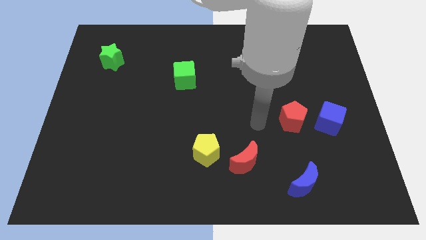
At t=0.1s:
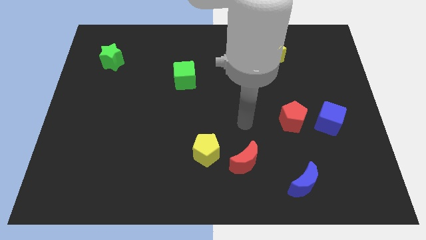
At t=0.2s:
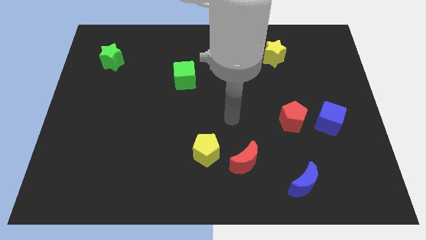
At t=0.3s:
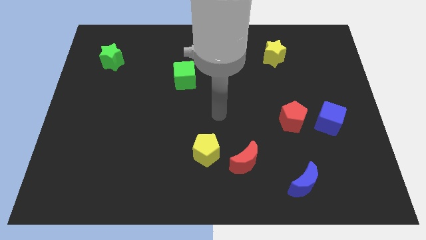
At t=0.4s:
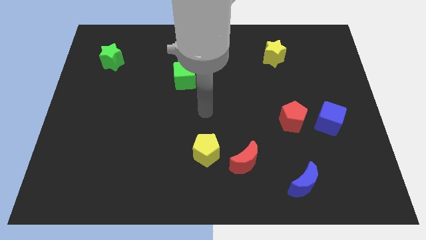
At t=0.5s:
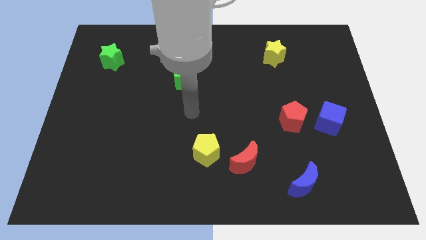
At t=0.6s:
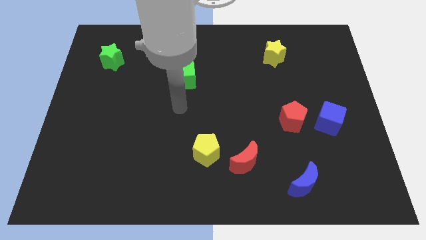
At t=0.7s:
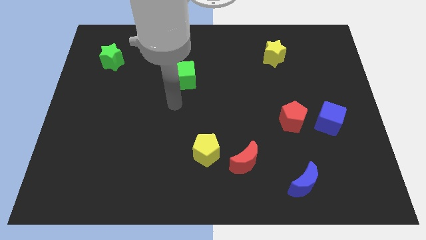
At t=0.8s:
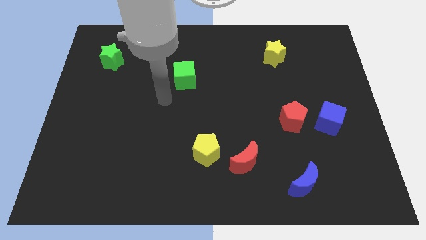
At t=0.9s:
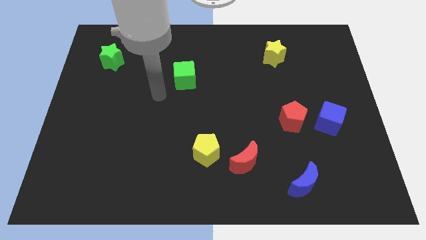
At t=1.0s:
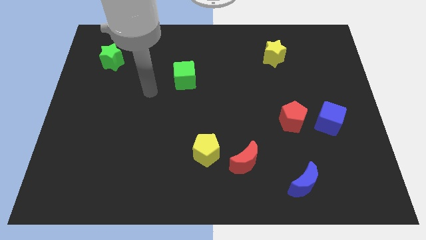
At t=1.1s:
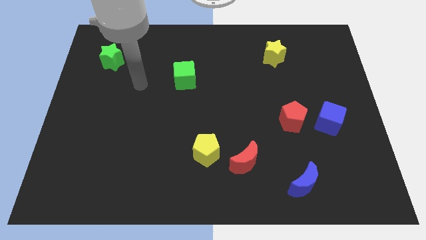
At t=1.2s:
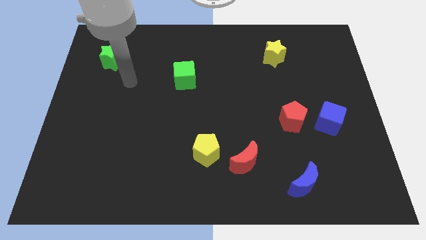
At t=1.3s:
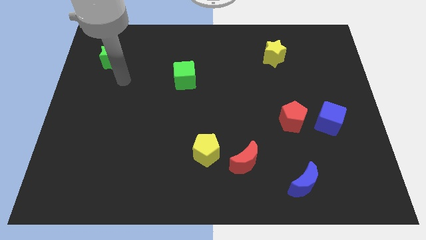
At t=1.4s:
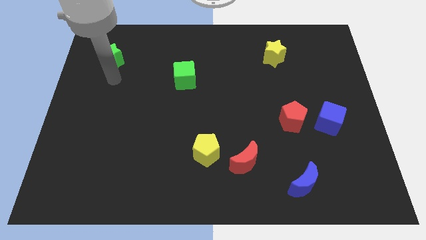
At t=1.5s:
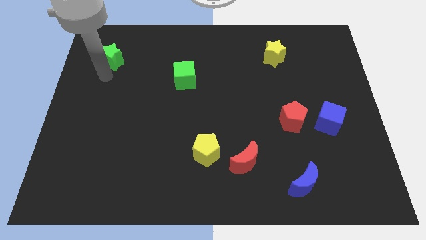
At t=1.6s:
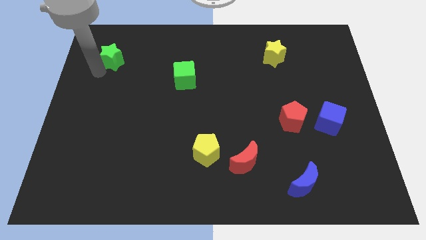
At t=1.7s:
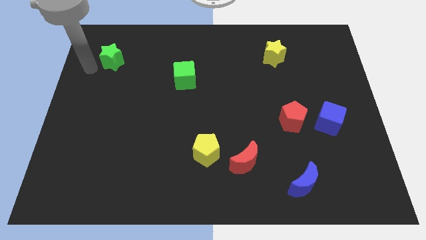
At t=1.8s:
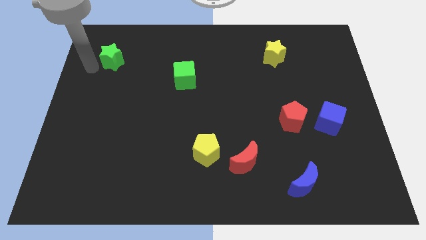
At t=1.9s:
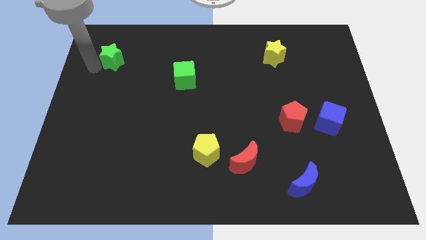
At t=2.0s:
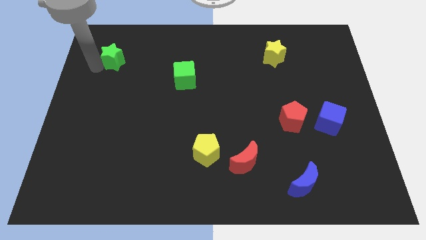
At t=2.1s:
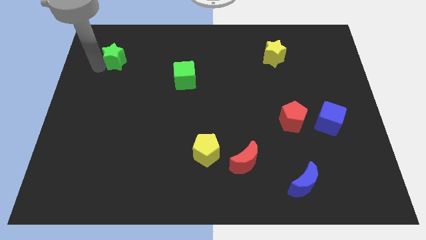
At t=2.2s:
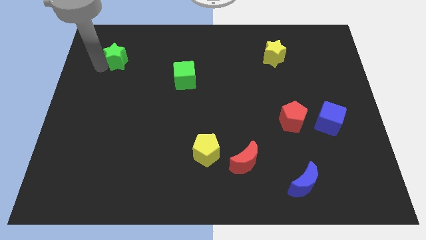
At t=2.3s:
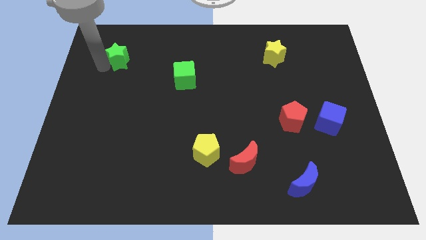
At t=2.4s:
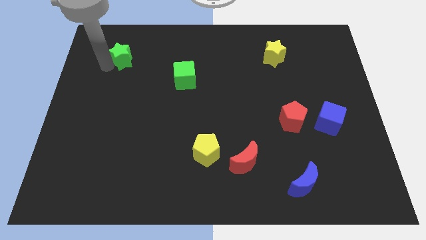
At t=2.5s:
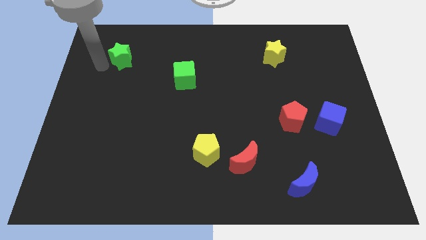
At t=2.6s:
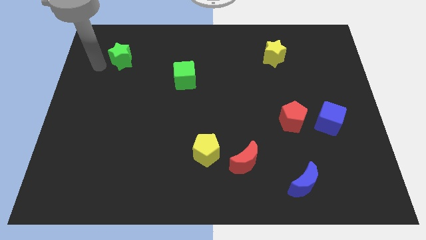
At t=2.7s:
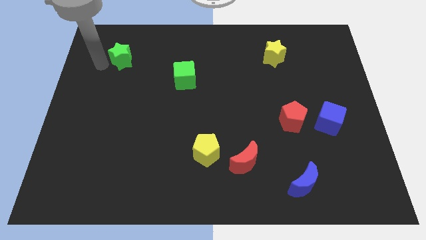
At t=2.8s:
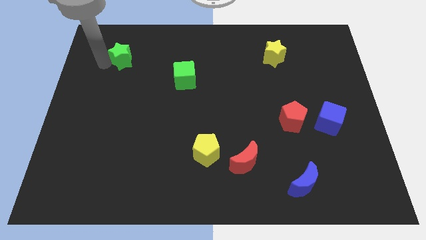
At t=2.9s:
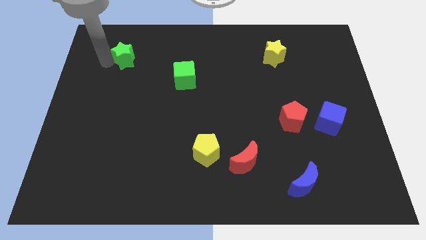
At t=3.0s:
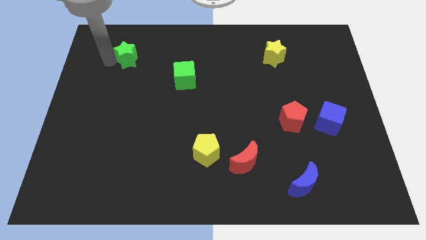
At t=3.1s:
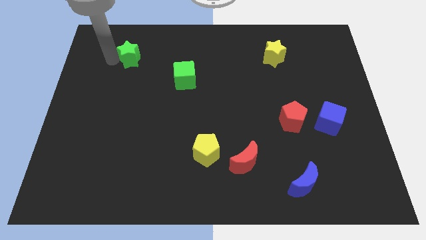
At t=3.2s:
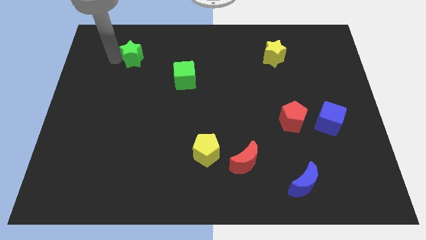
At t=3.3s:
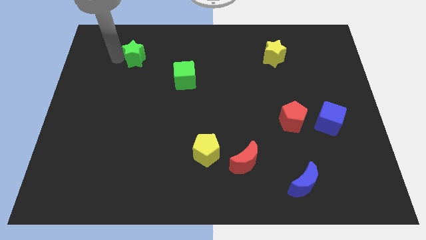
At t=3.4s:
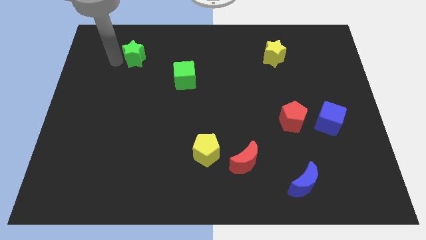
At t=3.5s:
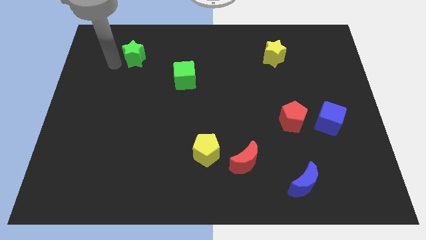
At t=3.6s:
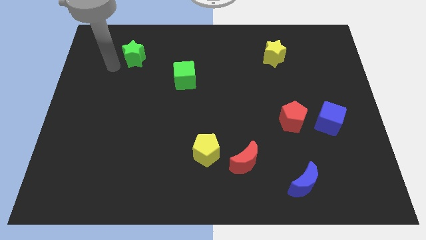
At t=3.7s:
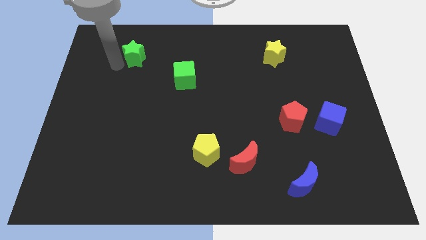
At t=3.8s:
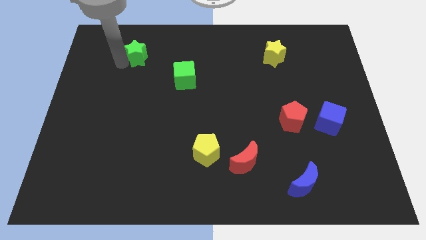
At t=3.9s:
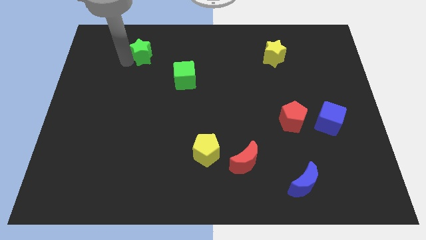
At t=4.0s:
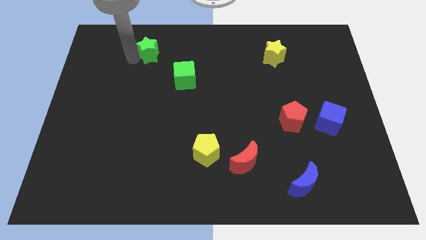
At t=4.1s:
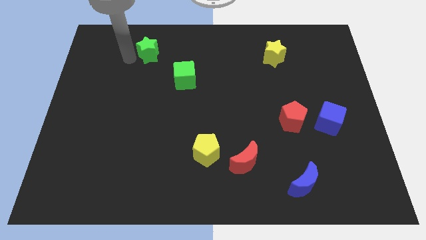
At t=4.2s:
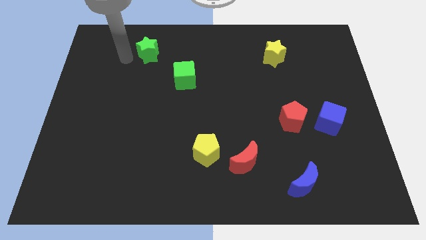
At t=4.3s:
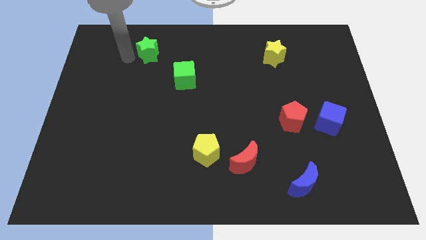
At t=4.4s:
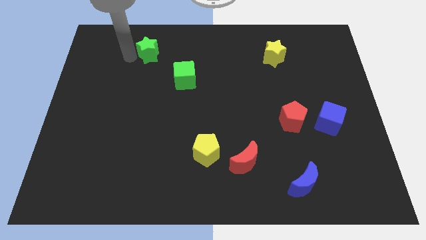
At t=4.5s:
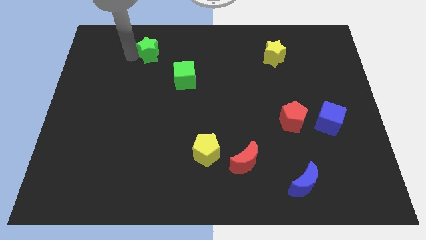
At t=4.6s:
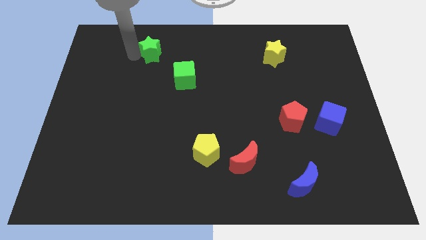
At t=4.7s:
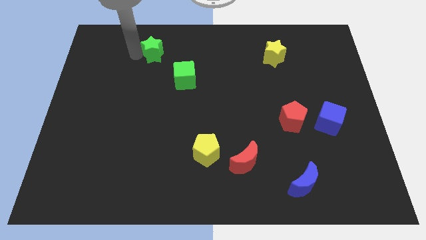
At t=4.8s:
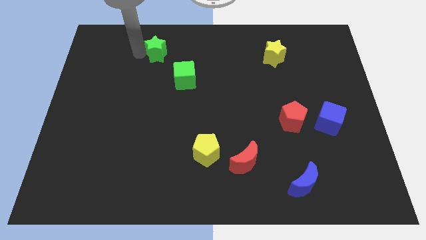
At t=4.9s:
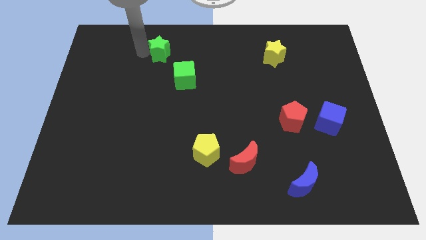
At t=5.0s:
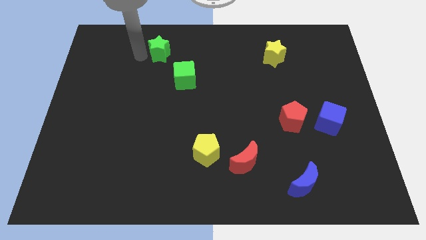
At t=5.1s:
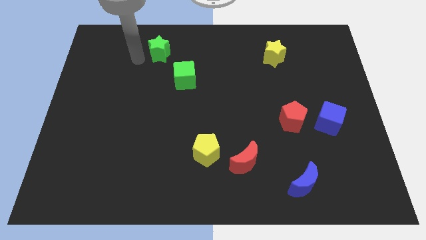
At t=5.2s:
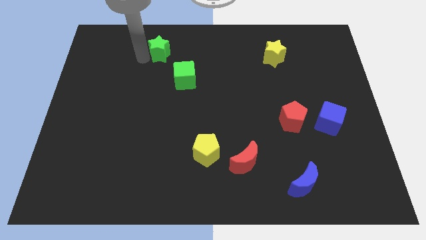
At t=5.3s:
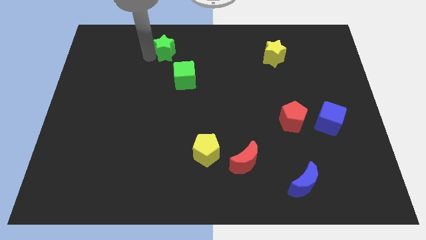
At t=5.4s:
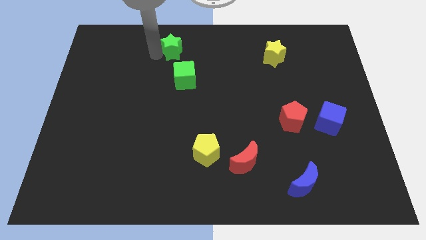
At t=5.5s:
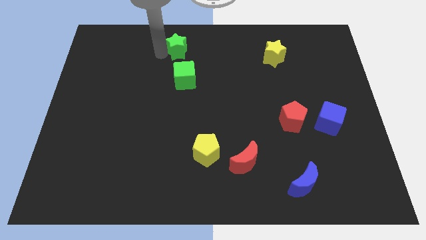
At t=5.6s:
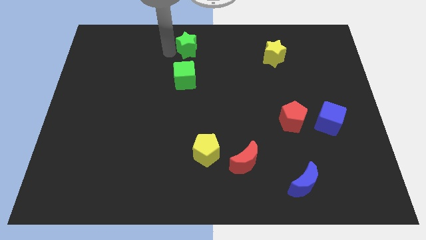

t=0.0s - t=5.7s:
put the green star to the top side

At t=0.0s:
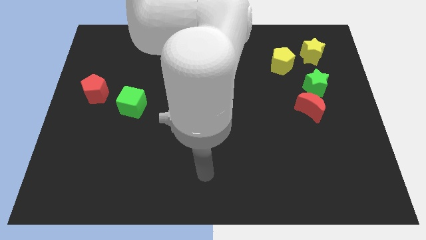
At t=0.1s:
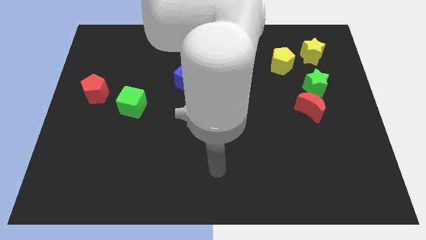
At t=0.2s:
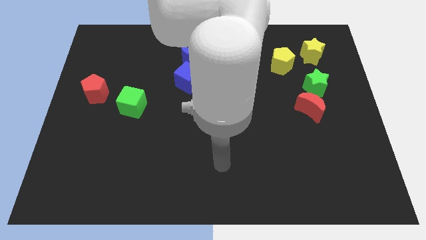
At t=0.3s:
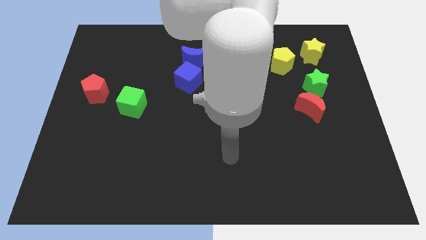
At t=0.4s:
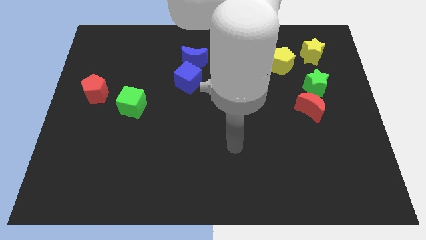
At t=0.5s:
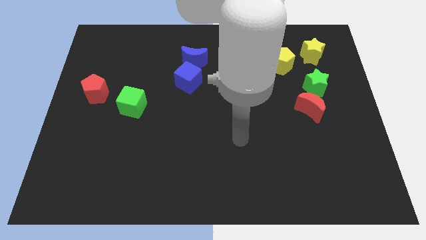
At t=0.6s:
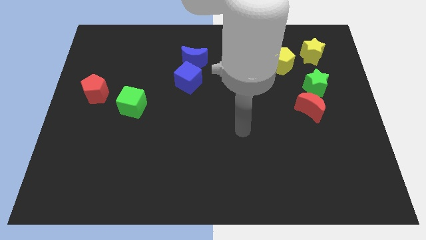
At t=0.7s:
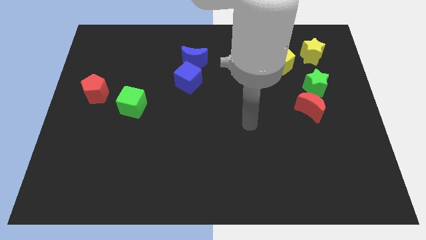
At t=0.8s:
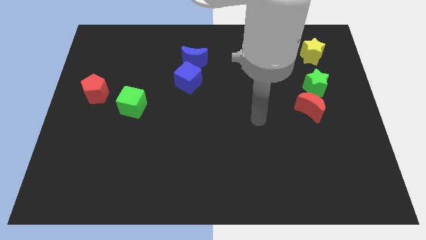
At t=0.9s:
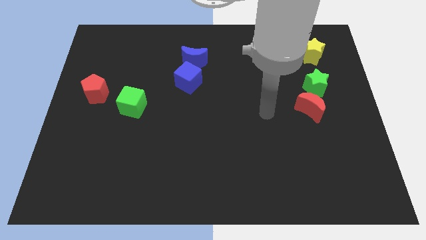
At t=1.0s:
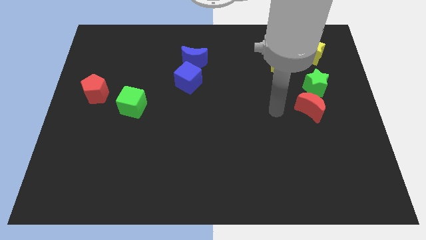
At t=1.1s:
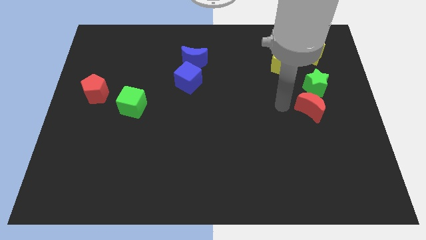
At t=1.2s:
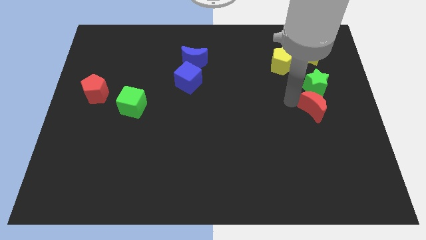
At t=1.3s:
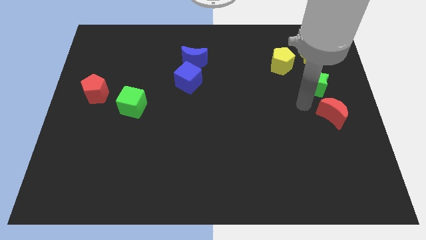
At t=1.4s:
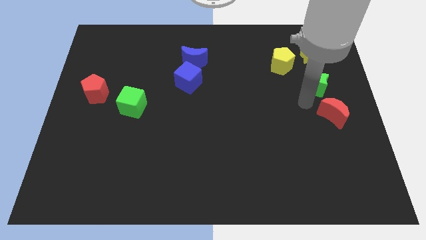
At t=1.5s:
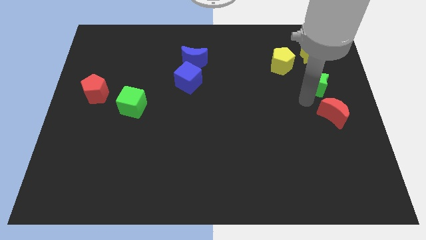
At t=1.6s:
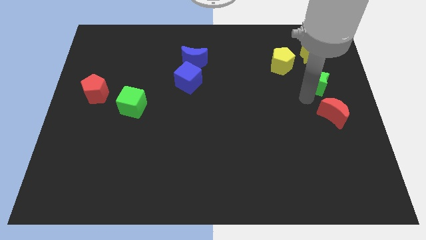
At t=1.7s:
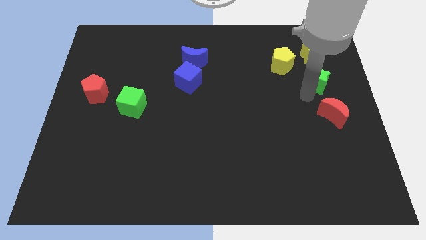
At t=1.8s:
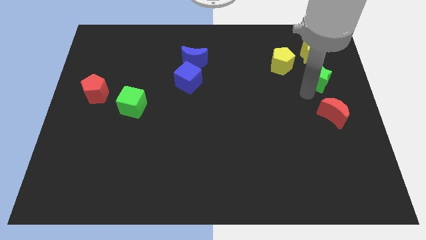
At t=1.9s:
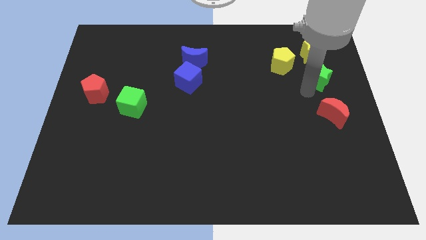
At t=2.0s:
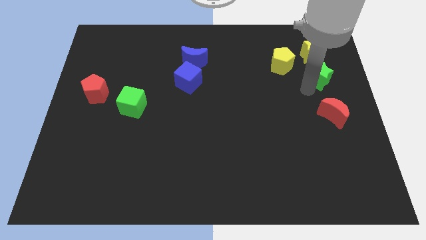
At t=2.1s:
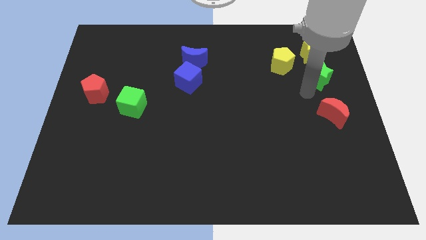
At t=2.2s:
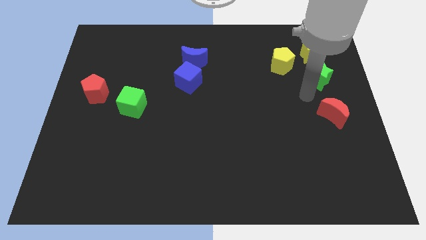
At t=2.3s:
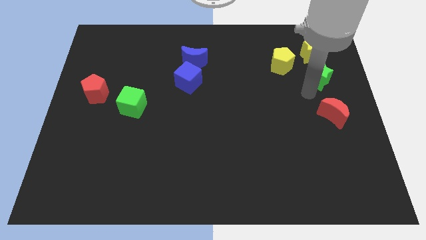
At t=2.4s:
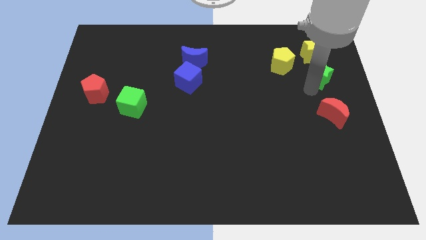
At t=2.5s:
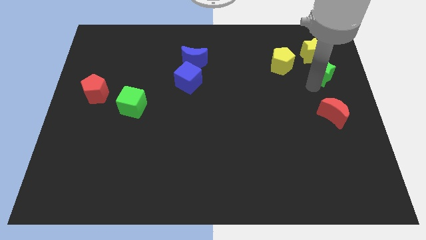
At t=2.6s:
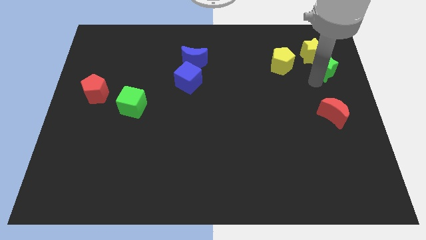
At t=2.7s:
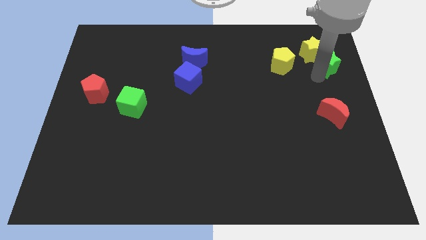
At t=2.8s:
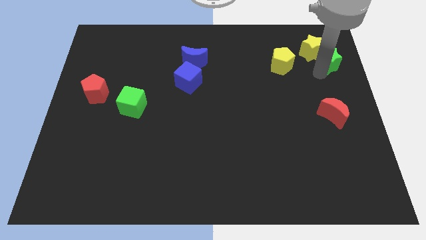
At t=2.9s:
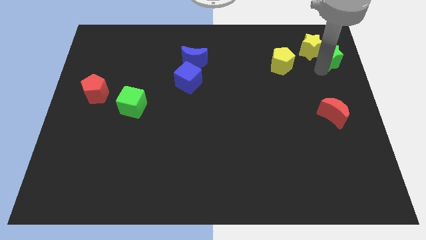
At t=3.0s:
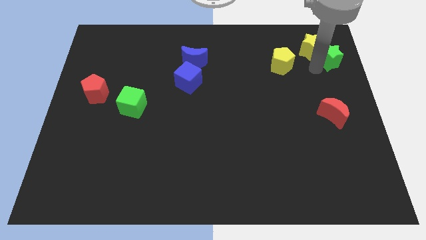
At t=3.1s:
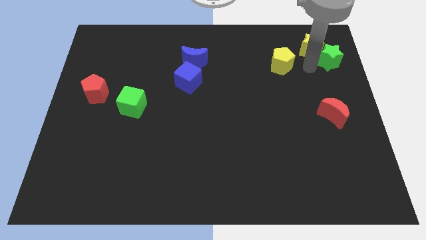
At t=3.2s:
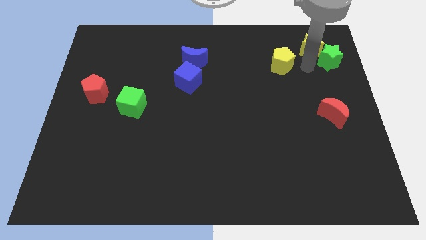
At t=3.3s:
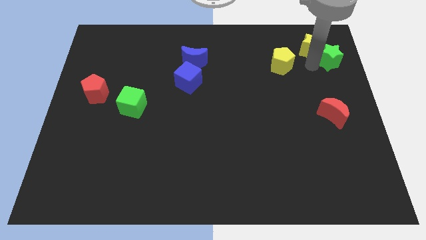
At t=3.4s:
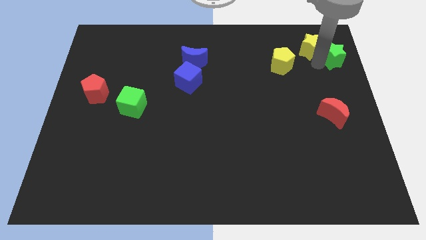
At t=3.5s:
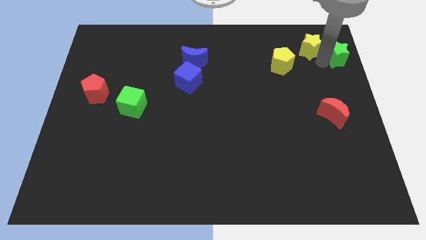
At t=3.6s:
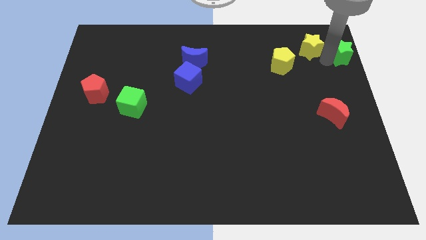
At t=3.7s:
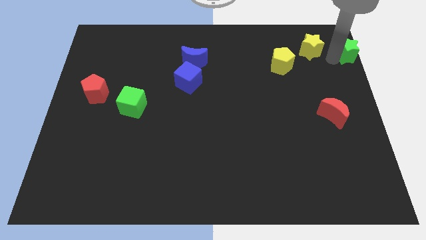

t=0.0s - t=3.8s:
put the green star to the upper right corner
